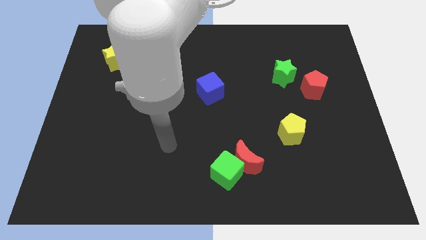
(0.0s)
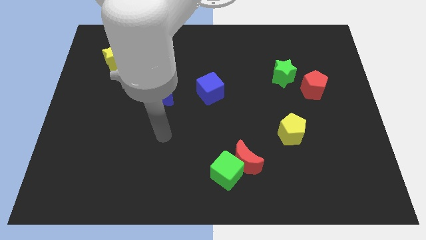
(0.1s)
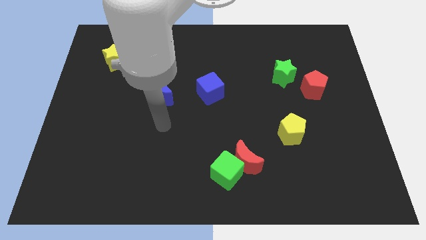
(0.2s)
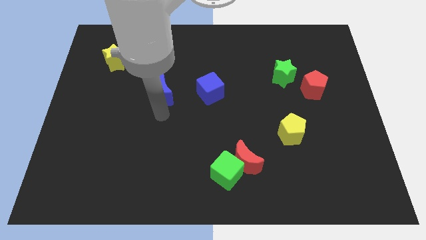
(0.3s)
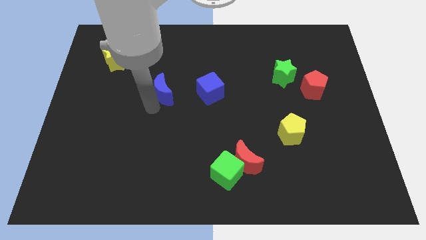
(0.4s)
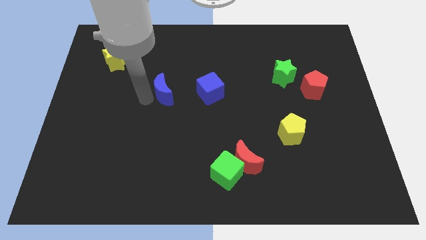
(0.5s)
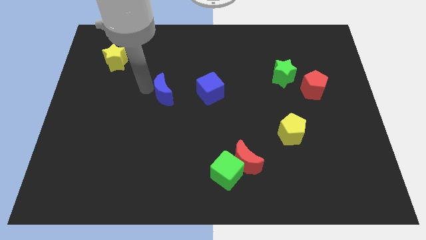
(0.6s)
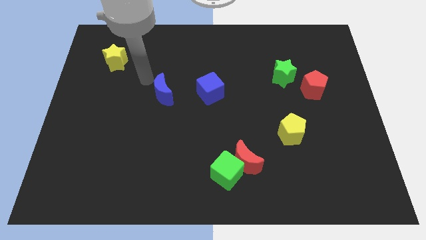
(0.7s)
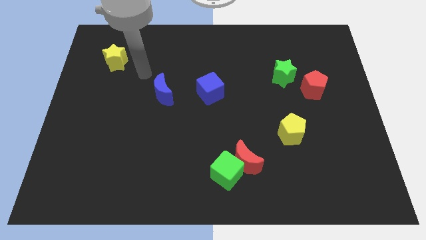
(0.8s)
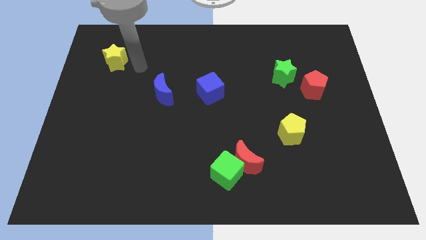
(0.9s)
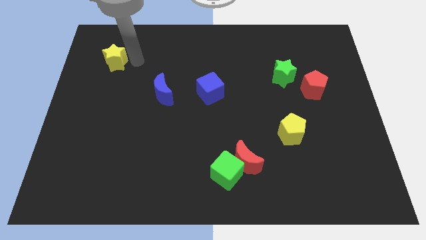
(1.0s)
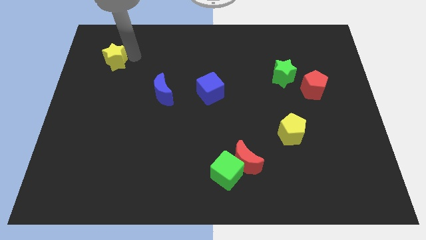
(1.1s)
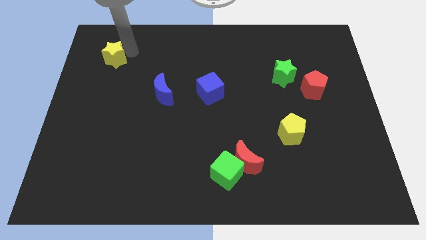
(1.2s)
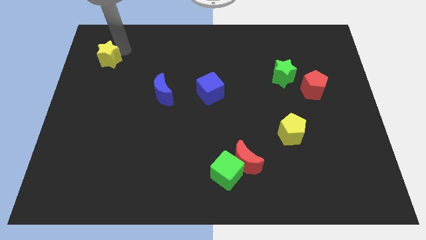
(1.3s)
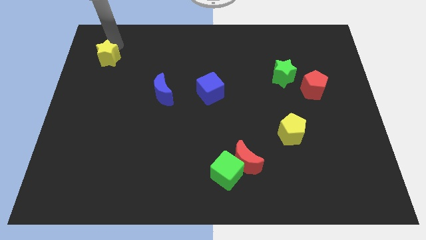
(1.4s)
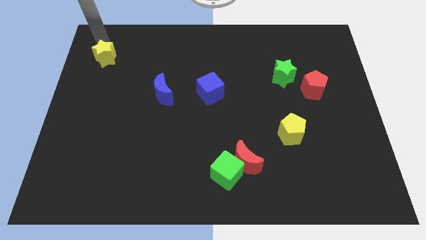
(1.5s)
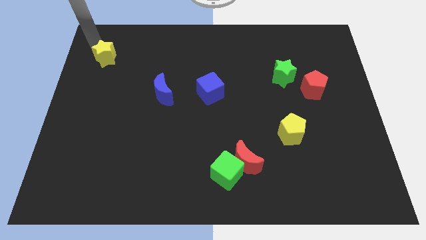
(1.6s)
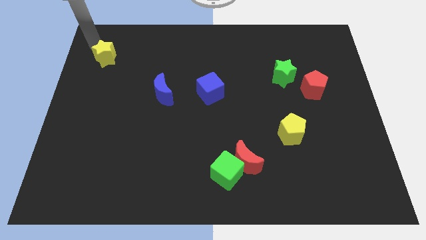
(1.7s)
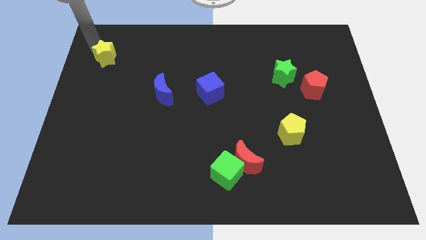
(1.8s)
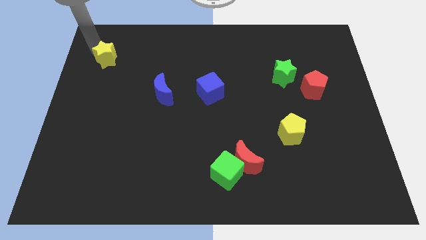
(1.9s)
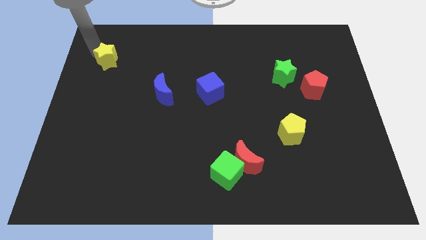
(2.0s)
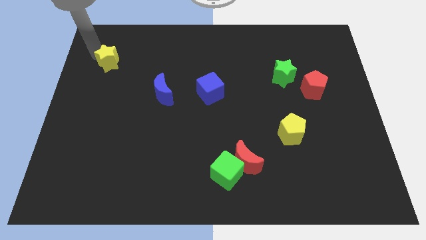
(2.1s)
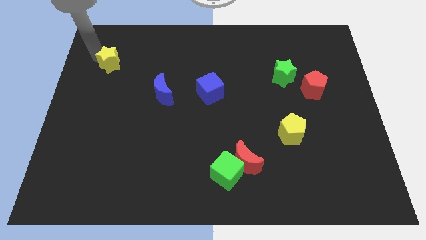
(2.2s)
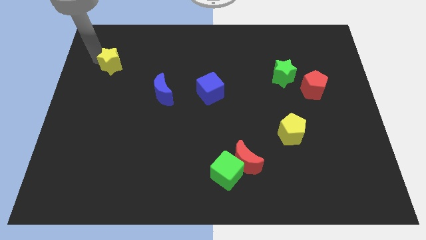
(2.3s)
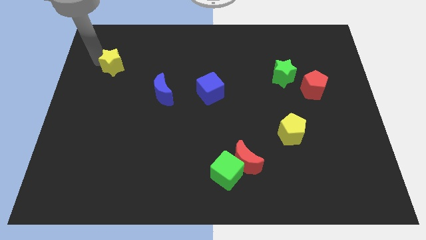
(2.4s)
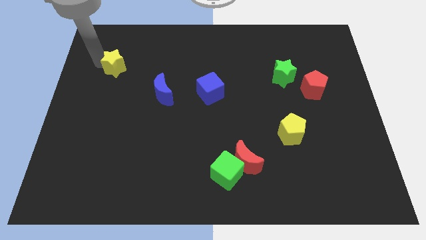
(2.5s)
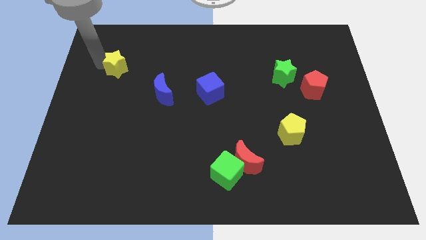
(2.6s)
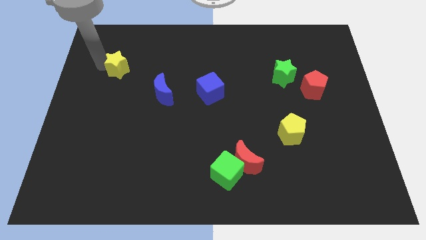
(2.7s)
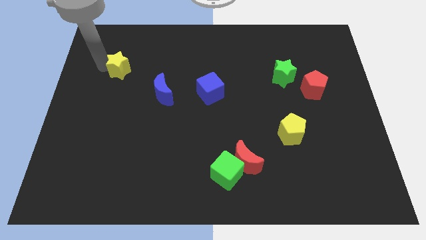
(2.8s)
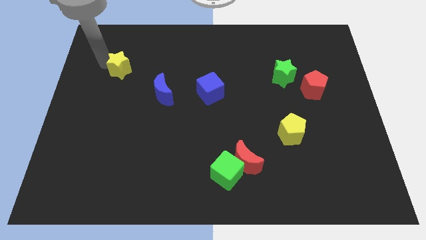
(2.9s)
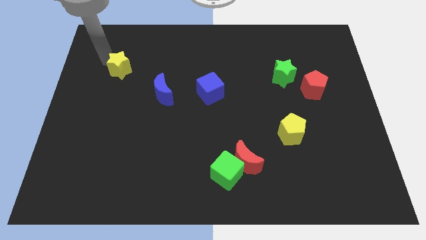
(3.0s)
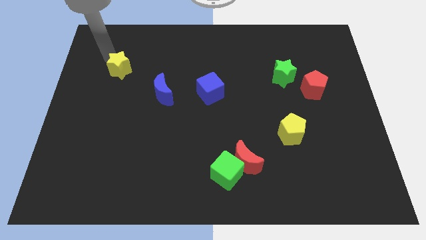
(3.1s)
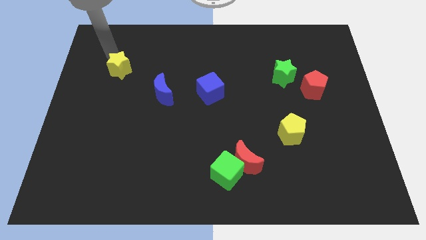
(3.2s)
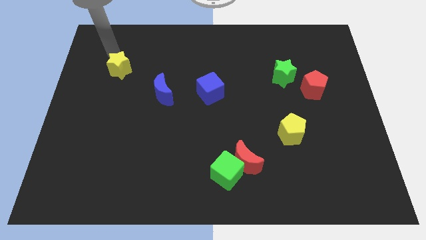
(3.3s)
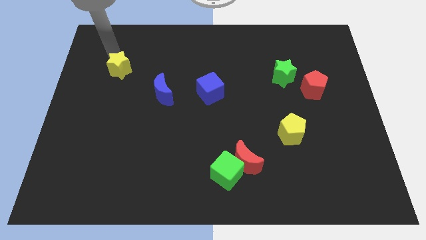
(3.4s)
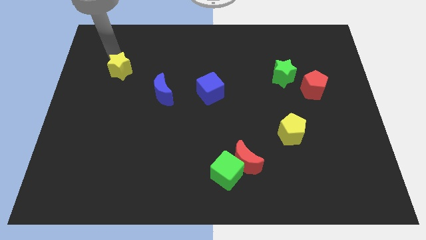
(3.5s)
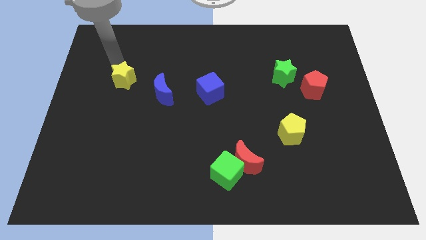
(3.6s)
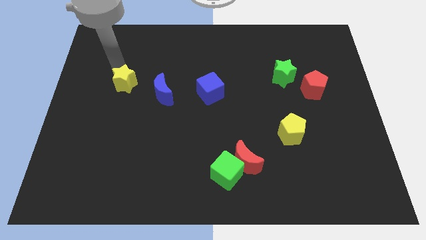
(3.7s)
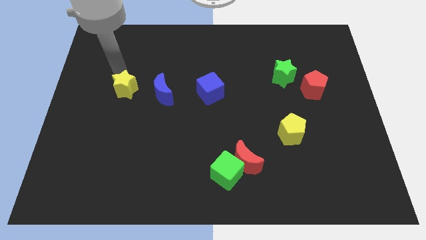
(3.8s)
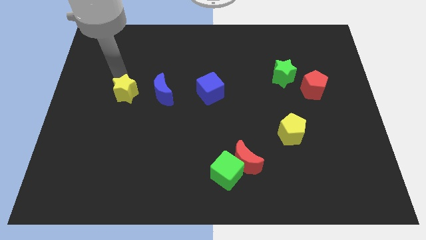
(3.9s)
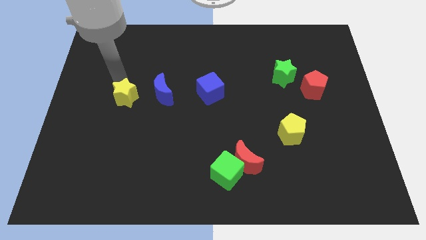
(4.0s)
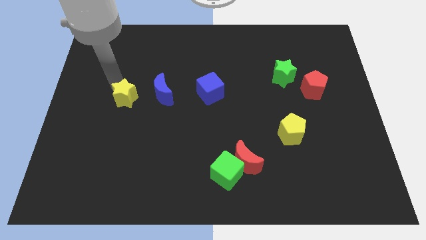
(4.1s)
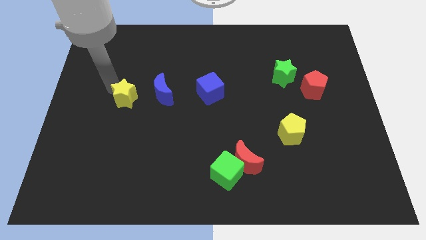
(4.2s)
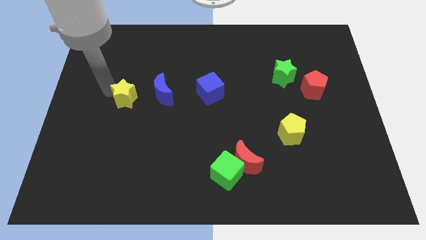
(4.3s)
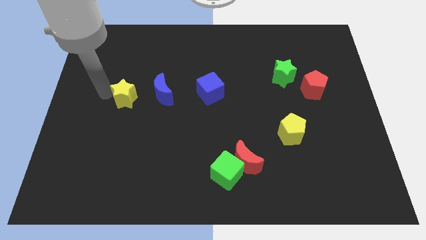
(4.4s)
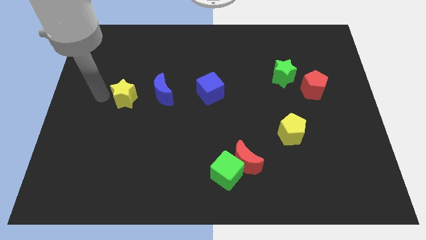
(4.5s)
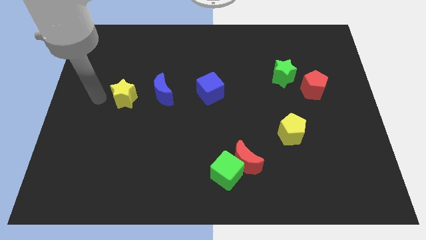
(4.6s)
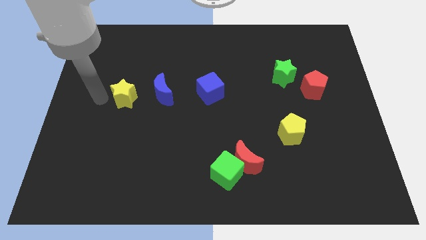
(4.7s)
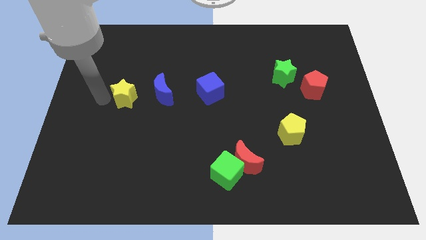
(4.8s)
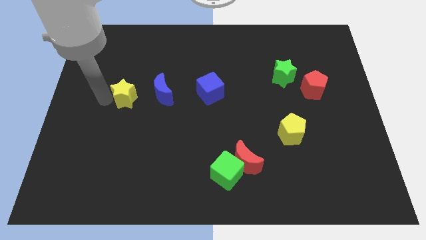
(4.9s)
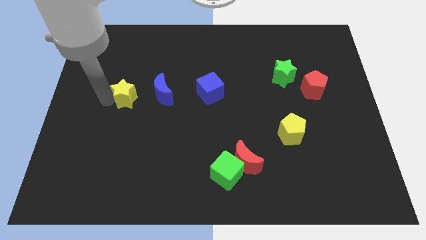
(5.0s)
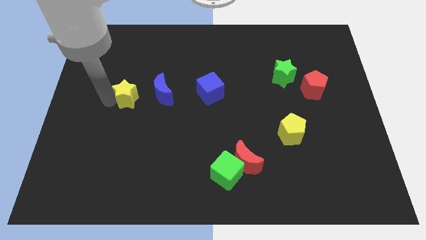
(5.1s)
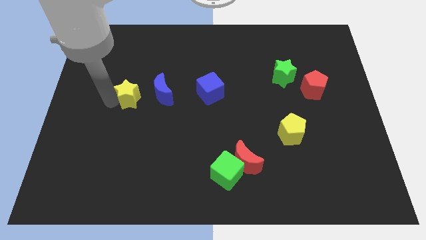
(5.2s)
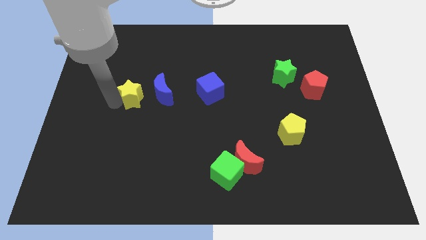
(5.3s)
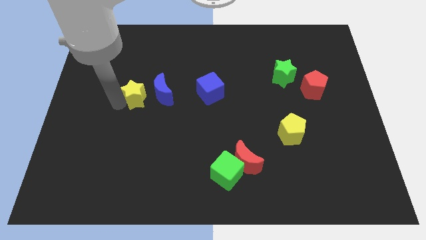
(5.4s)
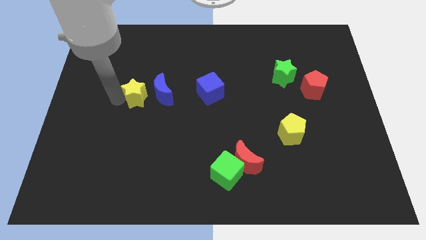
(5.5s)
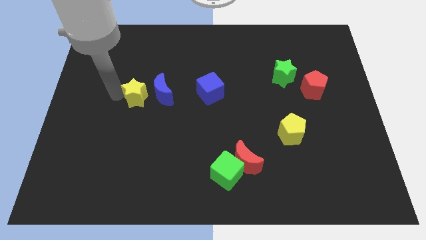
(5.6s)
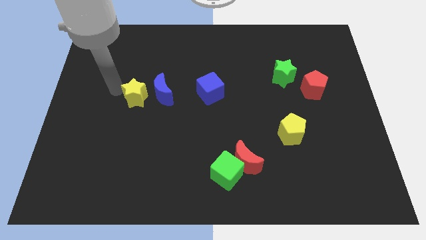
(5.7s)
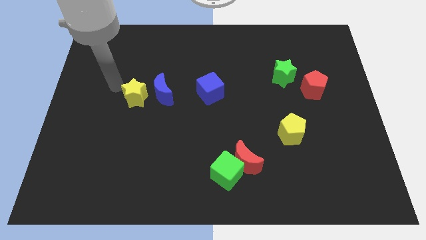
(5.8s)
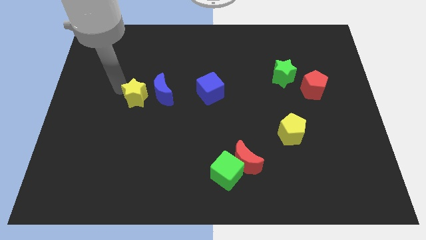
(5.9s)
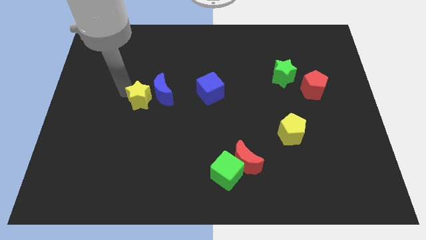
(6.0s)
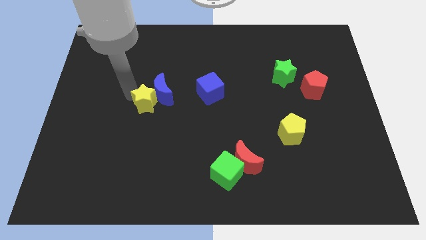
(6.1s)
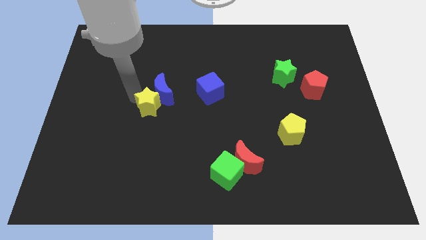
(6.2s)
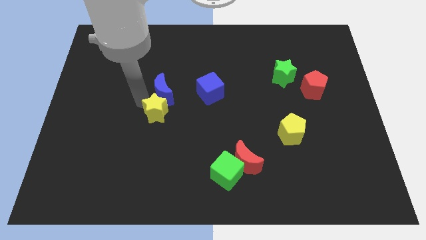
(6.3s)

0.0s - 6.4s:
move the yellow star down and to the right diagonally

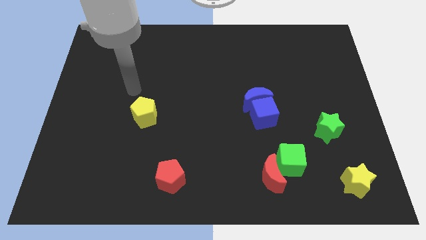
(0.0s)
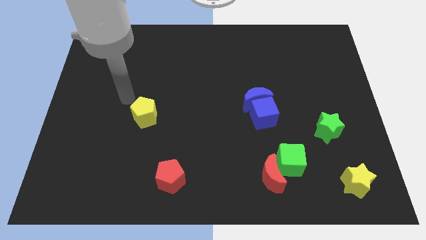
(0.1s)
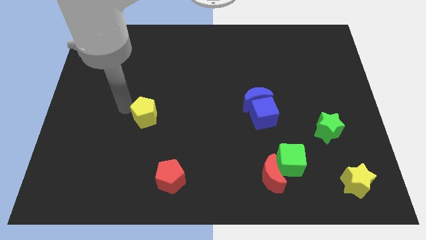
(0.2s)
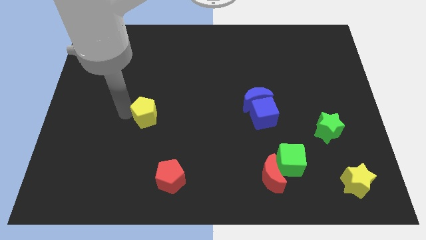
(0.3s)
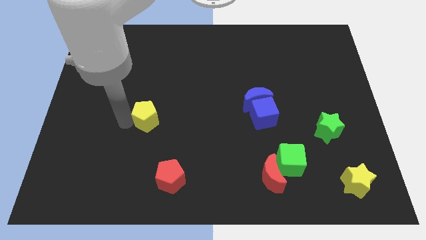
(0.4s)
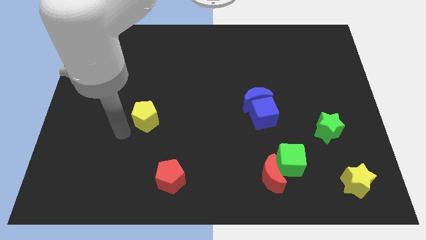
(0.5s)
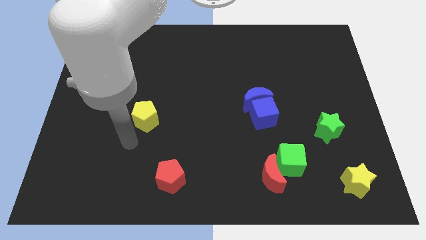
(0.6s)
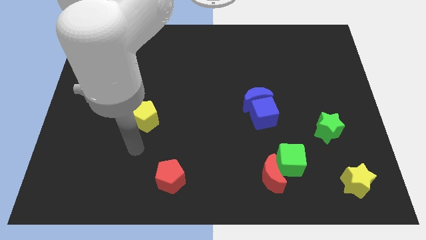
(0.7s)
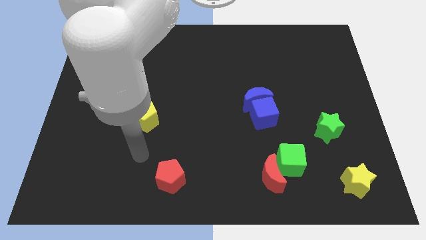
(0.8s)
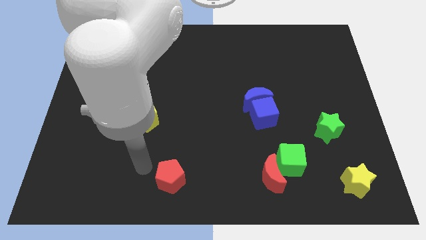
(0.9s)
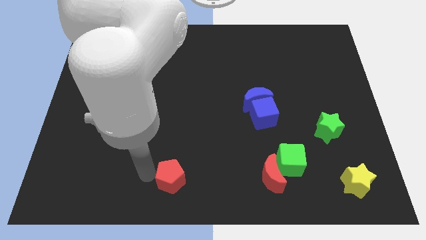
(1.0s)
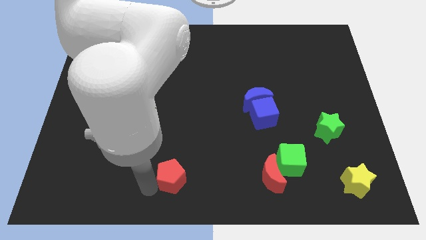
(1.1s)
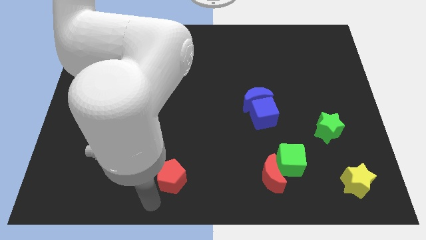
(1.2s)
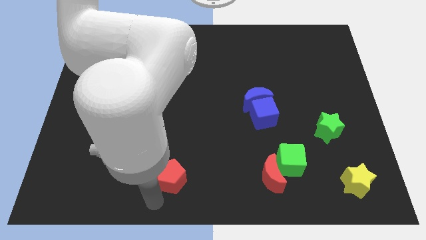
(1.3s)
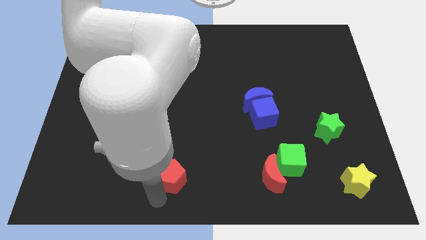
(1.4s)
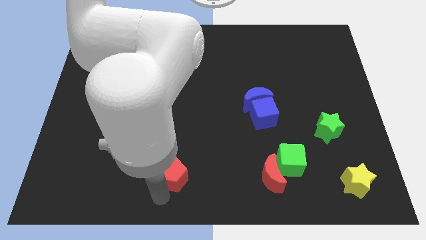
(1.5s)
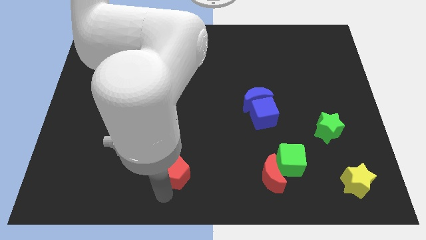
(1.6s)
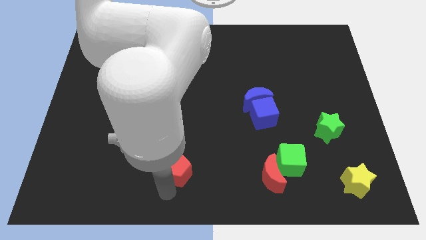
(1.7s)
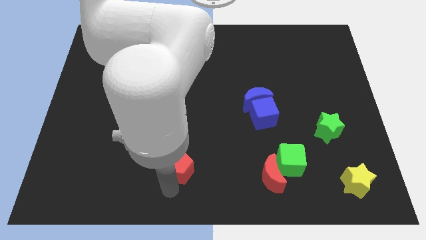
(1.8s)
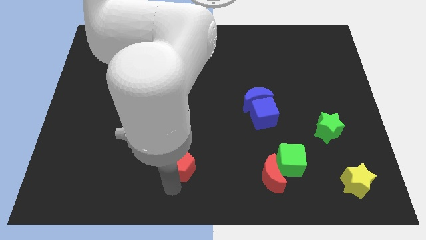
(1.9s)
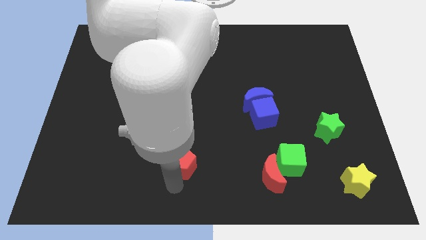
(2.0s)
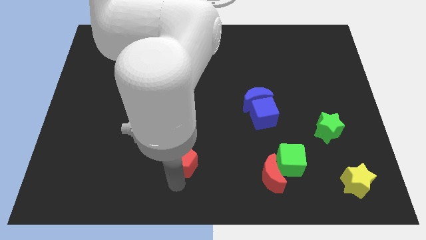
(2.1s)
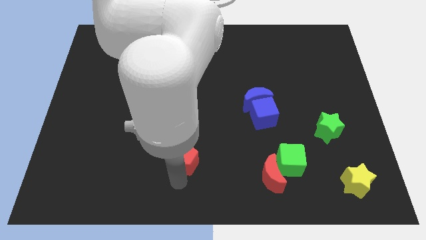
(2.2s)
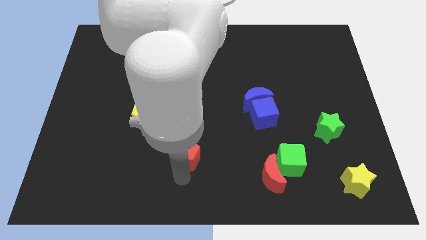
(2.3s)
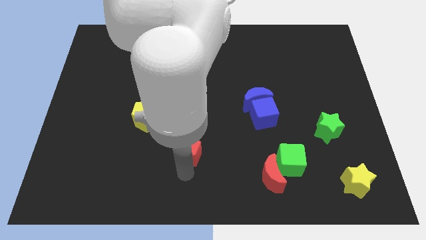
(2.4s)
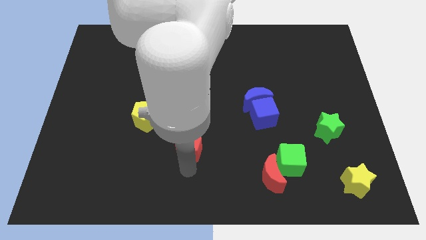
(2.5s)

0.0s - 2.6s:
push the red pentagon a bit up and to the right diagonally
